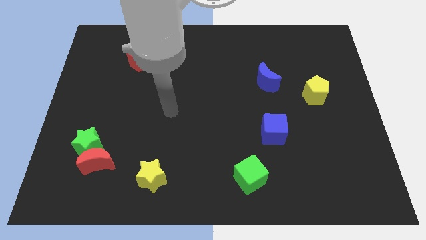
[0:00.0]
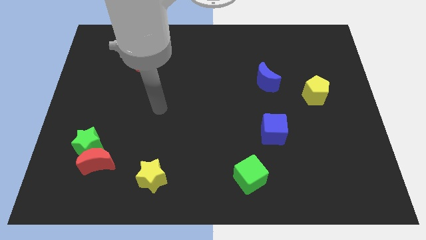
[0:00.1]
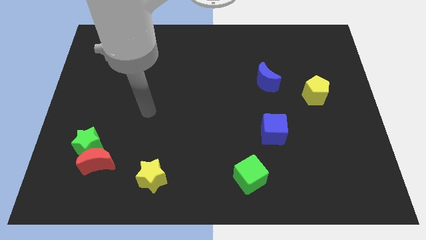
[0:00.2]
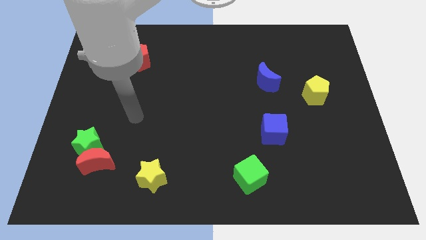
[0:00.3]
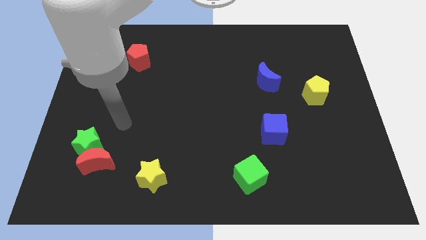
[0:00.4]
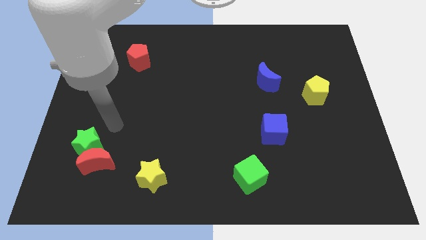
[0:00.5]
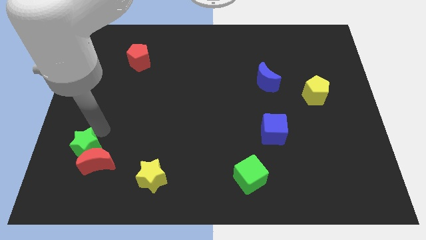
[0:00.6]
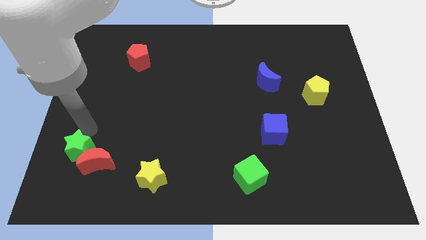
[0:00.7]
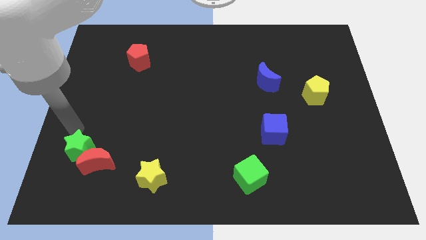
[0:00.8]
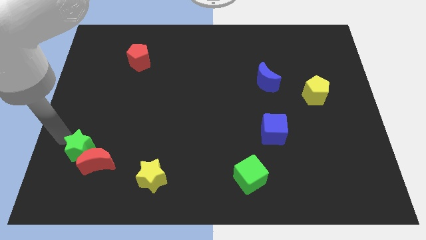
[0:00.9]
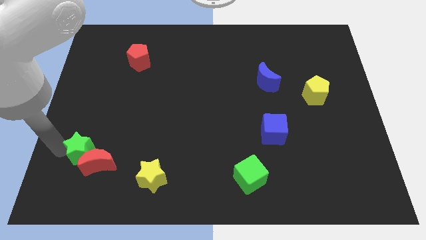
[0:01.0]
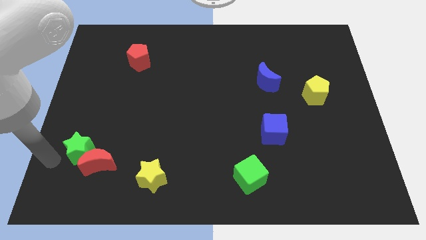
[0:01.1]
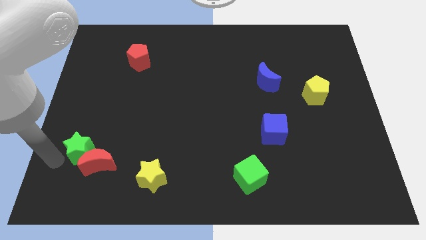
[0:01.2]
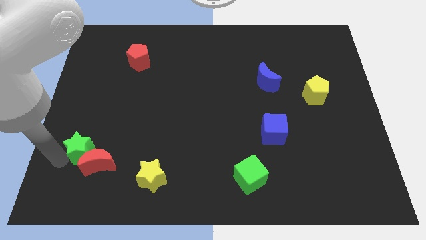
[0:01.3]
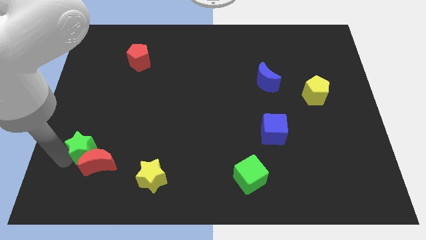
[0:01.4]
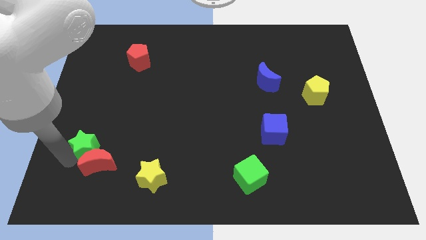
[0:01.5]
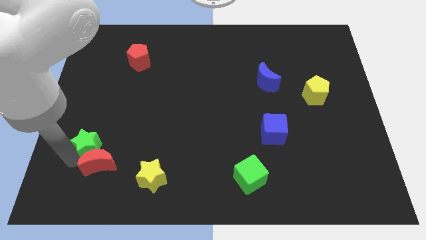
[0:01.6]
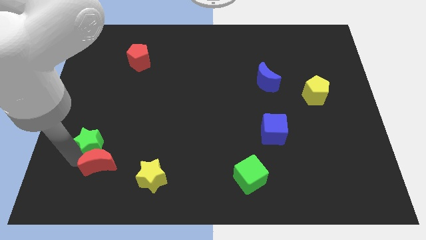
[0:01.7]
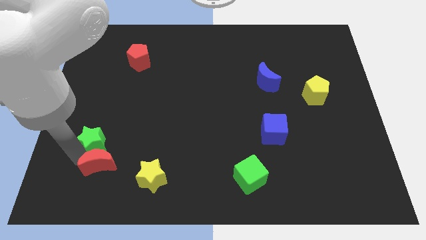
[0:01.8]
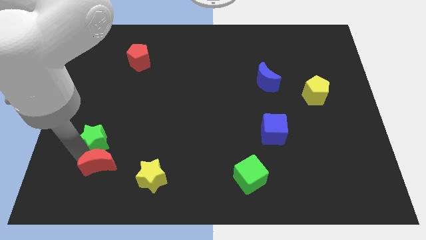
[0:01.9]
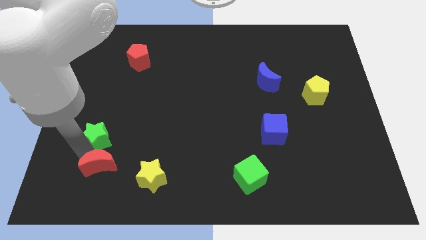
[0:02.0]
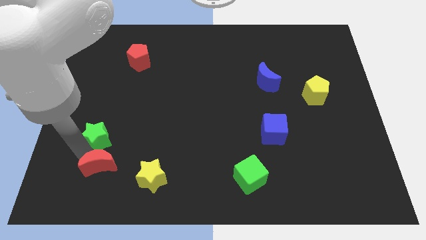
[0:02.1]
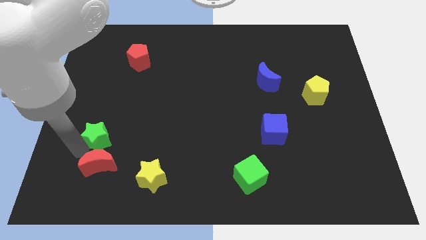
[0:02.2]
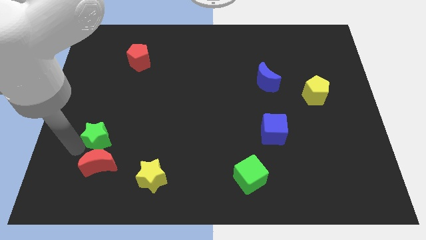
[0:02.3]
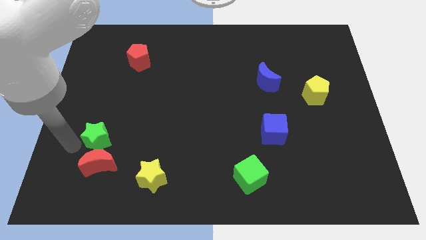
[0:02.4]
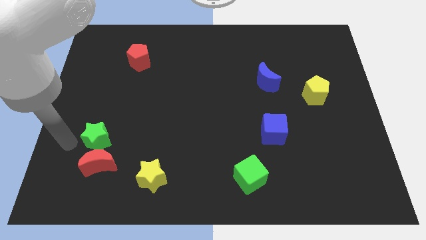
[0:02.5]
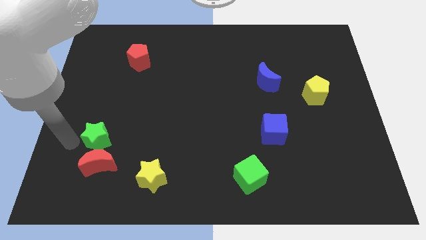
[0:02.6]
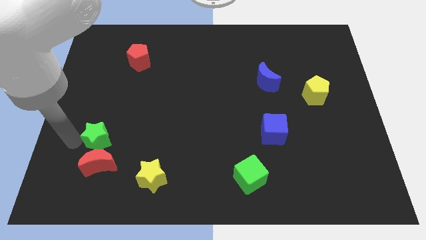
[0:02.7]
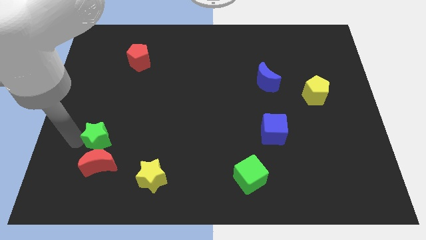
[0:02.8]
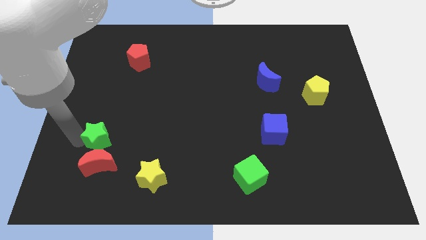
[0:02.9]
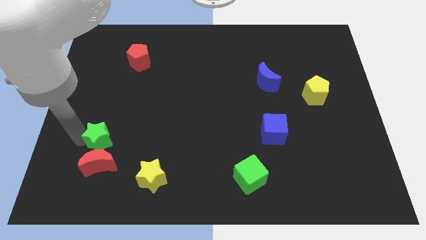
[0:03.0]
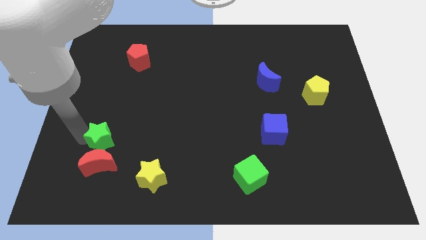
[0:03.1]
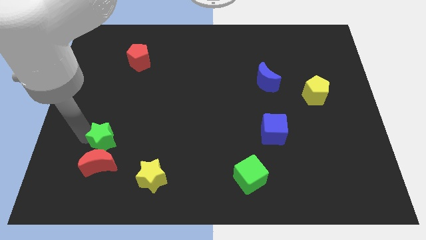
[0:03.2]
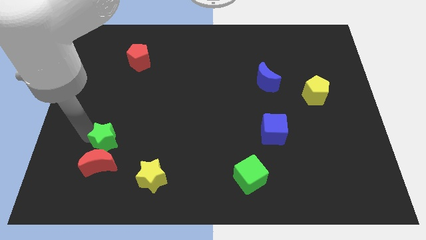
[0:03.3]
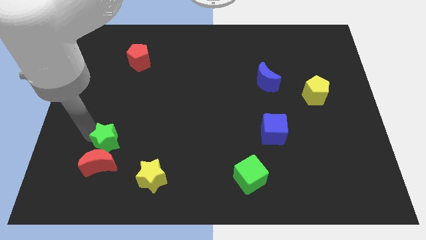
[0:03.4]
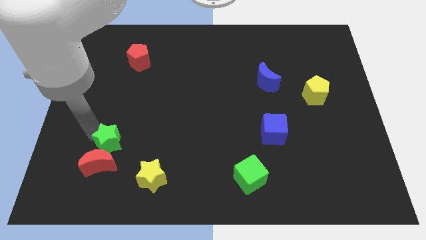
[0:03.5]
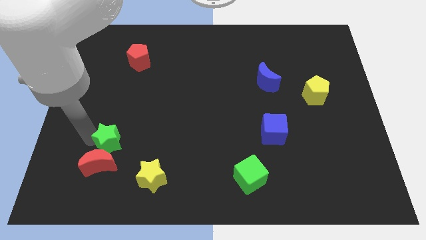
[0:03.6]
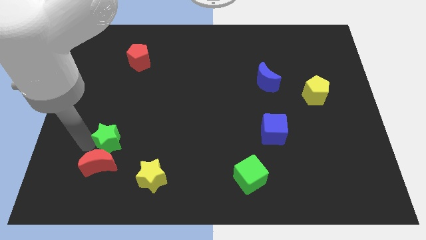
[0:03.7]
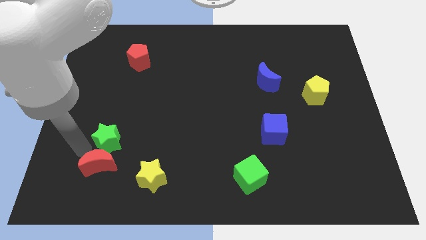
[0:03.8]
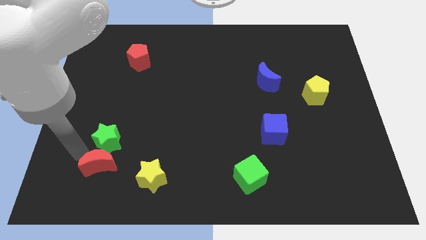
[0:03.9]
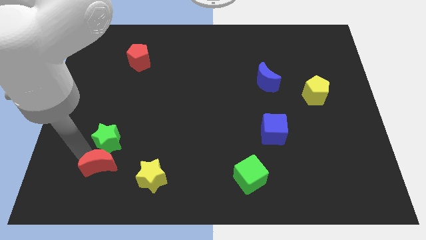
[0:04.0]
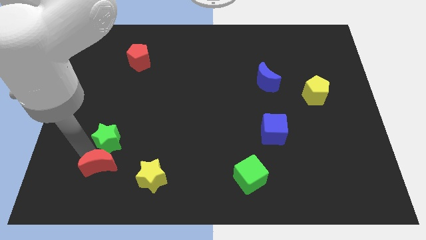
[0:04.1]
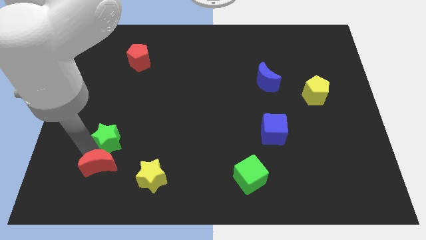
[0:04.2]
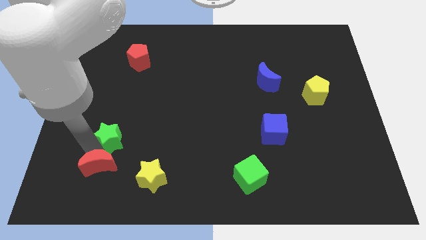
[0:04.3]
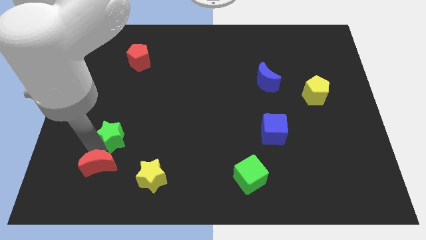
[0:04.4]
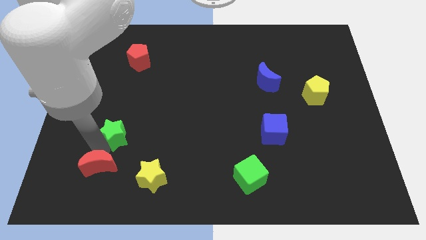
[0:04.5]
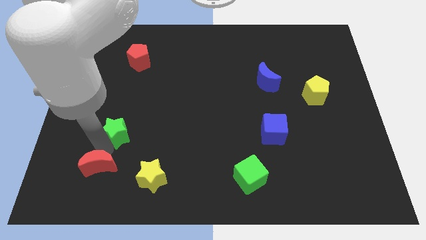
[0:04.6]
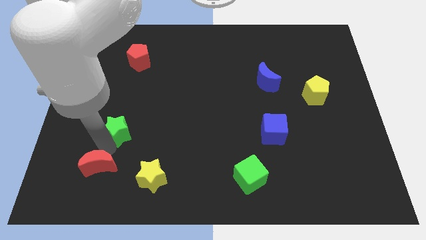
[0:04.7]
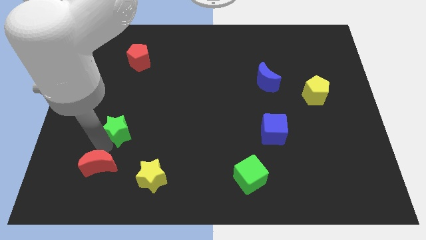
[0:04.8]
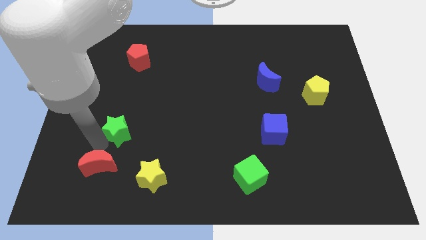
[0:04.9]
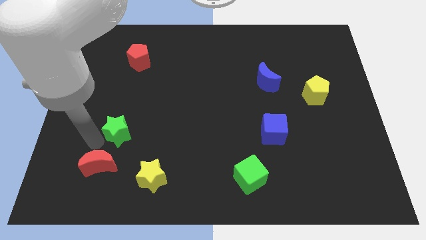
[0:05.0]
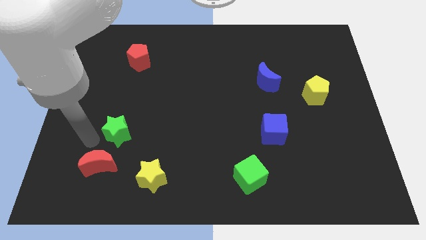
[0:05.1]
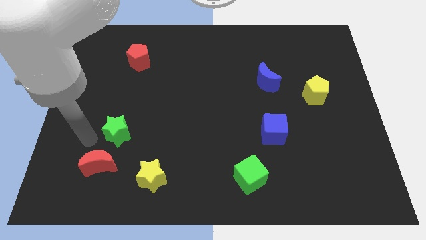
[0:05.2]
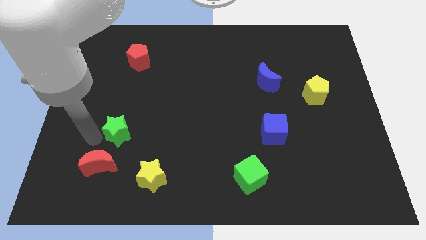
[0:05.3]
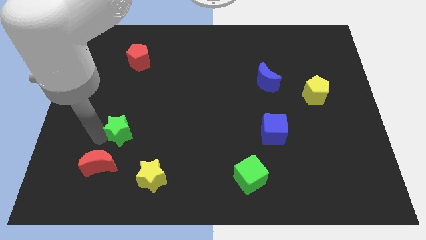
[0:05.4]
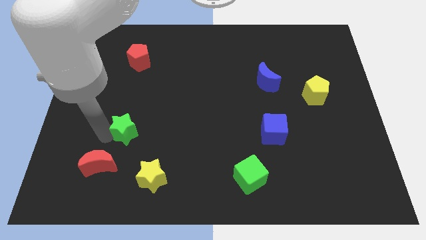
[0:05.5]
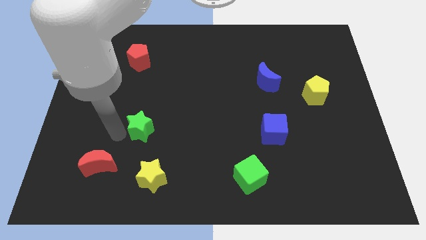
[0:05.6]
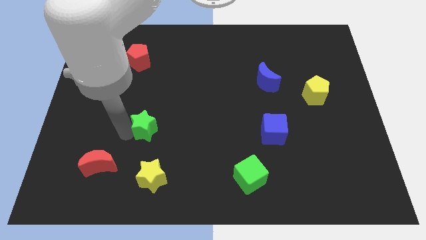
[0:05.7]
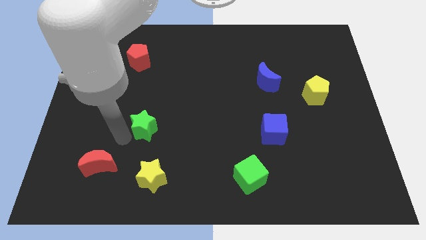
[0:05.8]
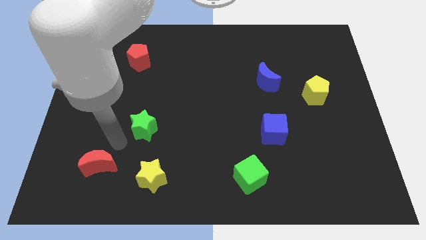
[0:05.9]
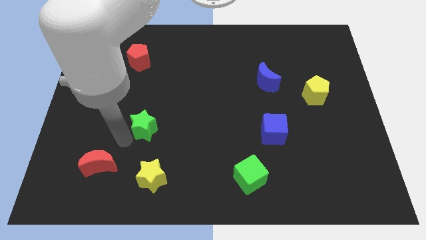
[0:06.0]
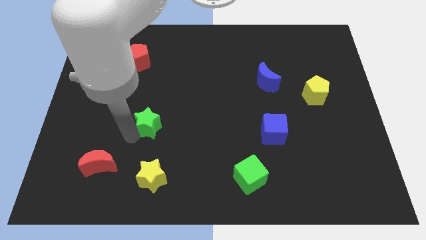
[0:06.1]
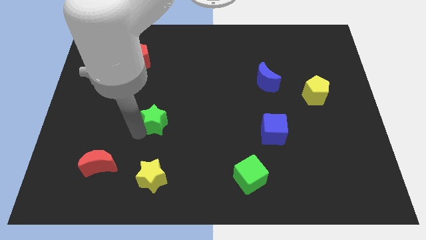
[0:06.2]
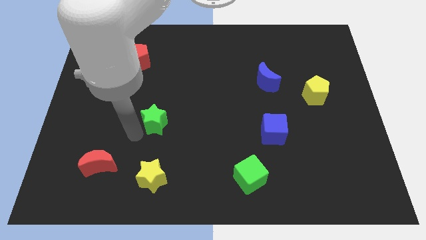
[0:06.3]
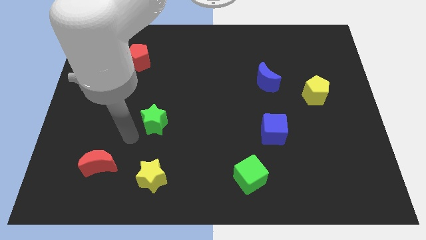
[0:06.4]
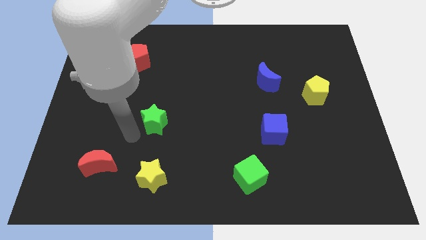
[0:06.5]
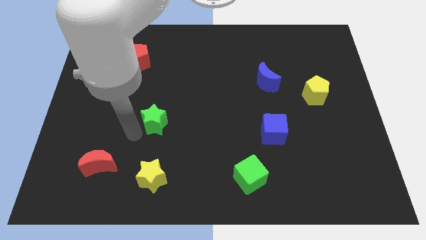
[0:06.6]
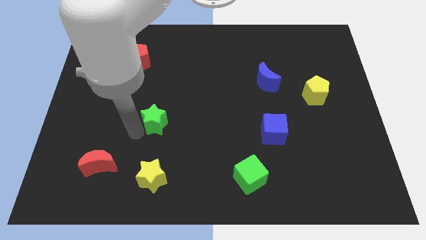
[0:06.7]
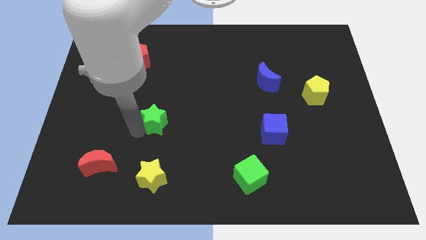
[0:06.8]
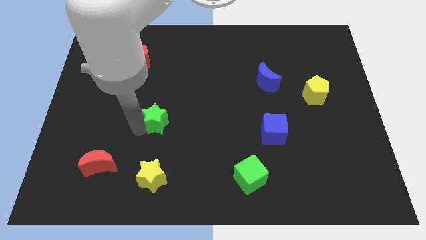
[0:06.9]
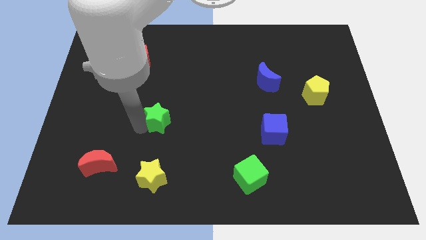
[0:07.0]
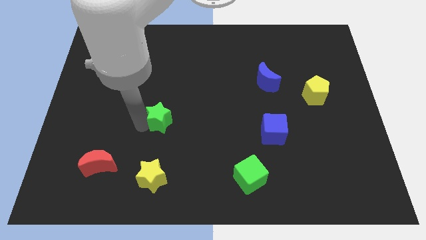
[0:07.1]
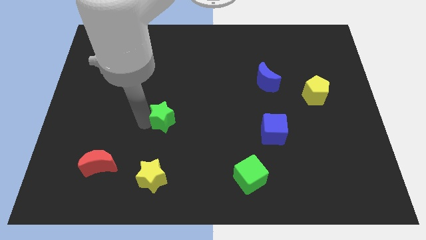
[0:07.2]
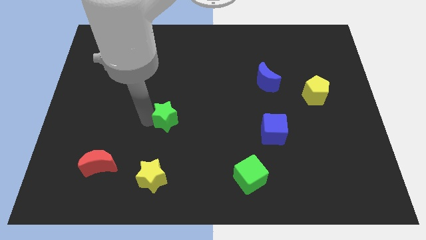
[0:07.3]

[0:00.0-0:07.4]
push the green star to the center of the board
